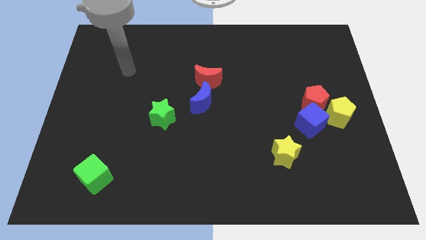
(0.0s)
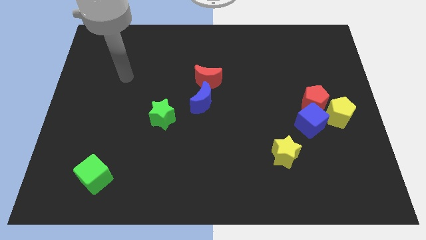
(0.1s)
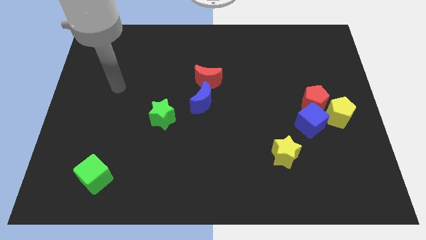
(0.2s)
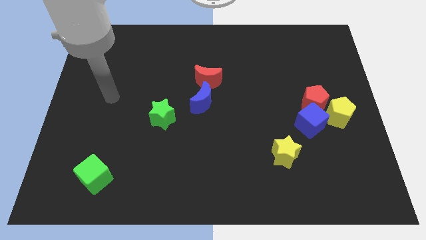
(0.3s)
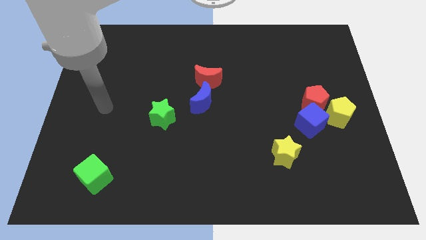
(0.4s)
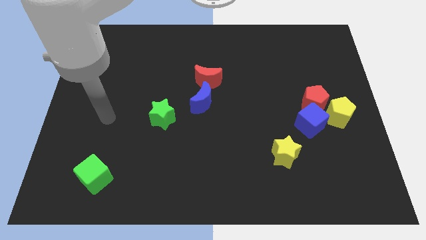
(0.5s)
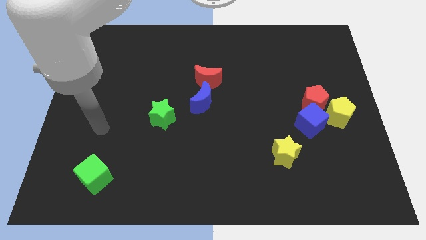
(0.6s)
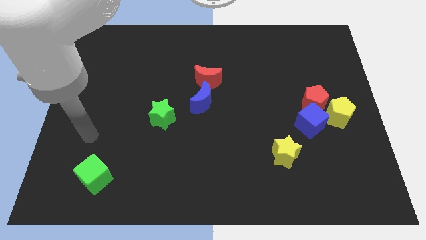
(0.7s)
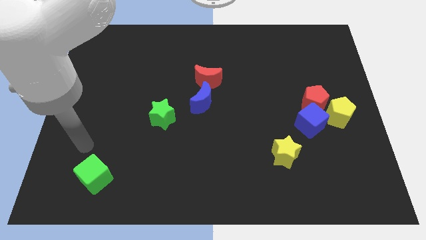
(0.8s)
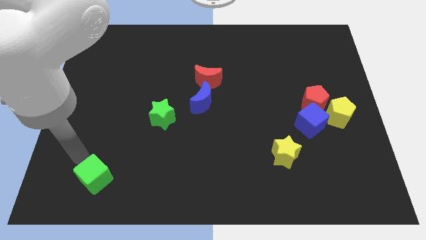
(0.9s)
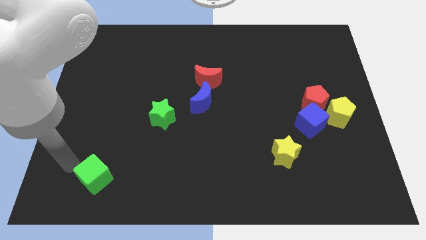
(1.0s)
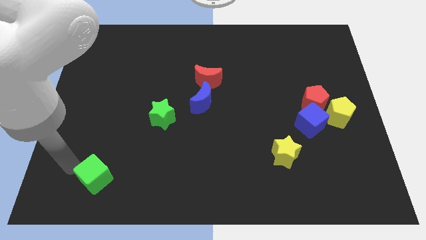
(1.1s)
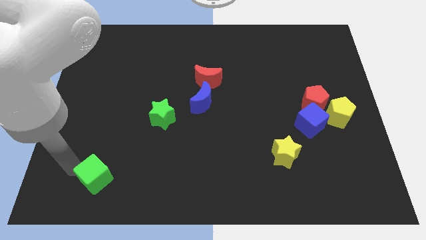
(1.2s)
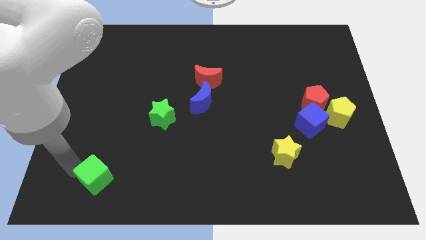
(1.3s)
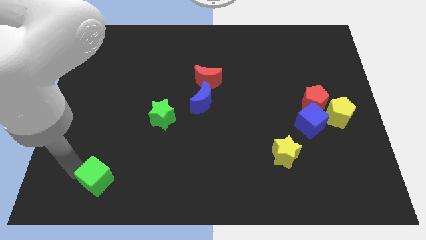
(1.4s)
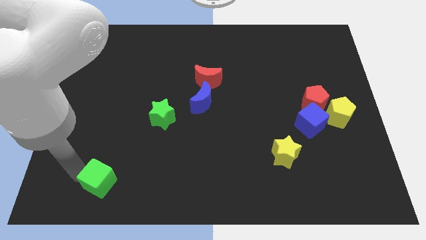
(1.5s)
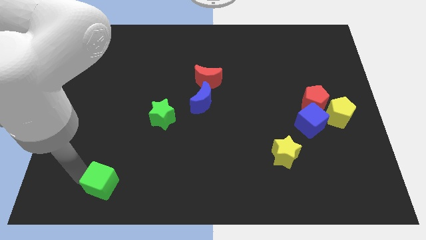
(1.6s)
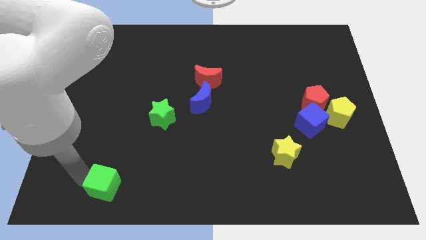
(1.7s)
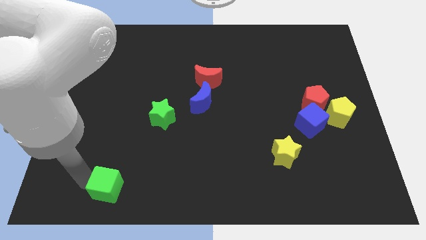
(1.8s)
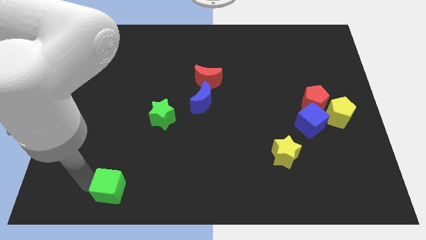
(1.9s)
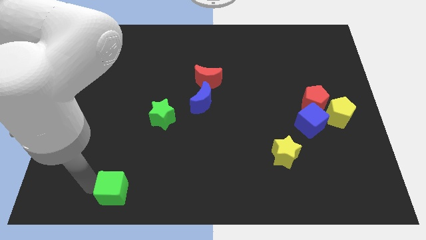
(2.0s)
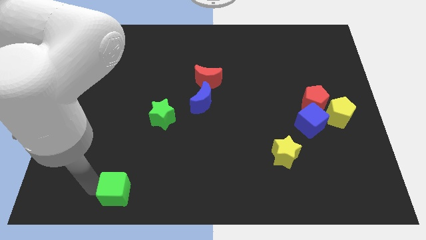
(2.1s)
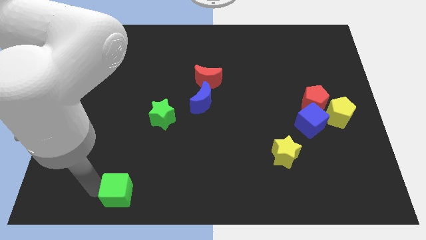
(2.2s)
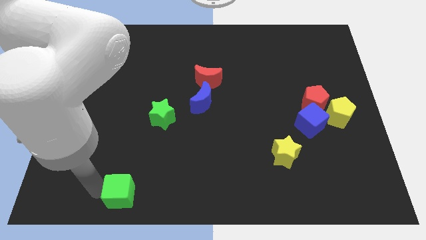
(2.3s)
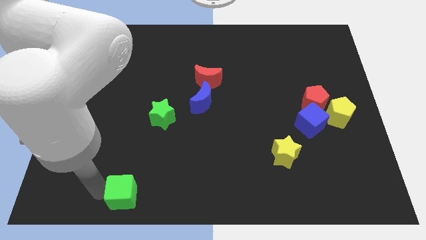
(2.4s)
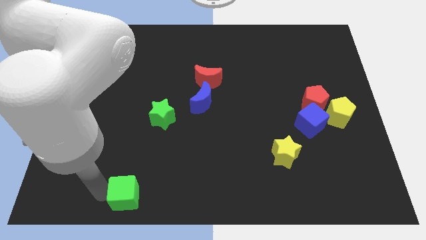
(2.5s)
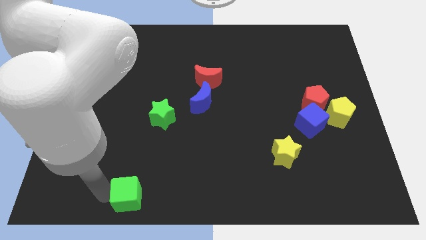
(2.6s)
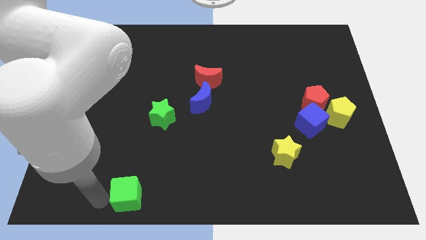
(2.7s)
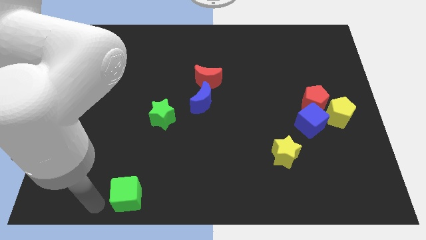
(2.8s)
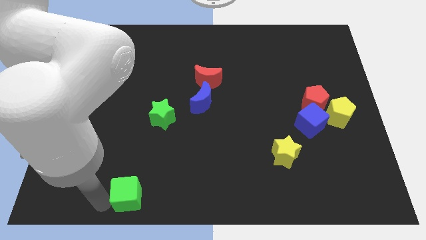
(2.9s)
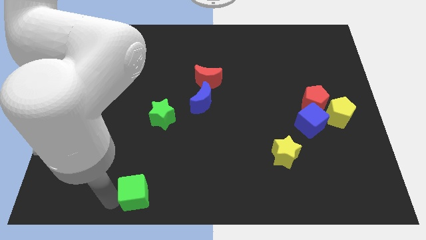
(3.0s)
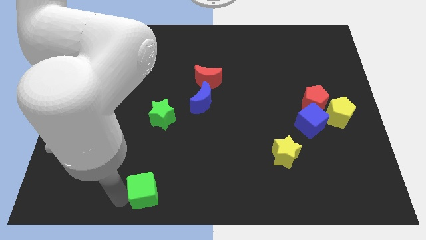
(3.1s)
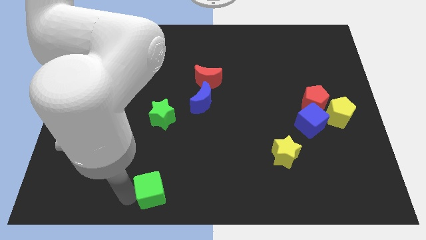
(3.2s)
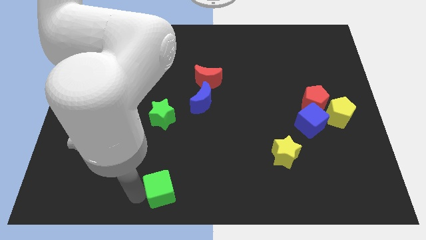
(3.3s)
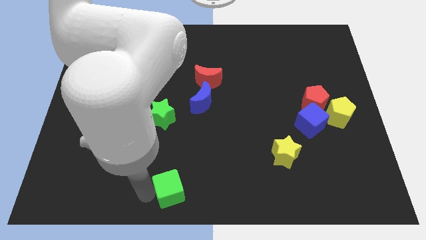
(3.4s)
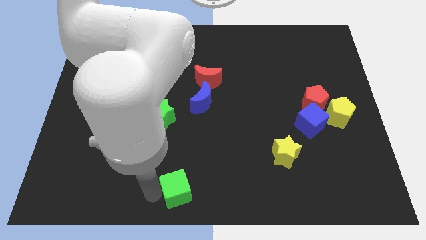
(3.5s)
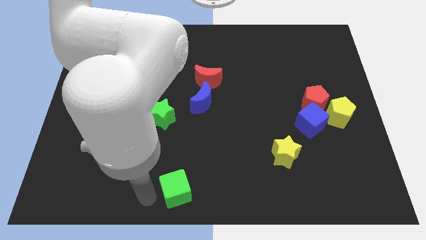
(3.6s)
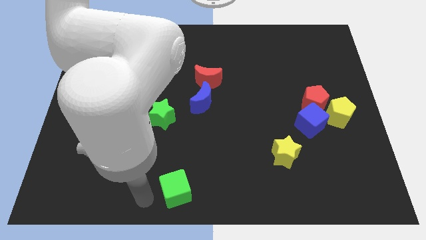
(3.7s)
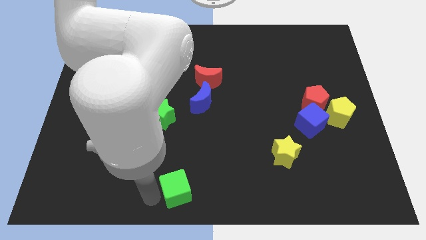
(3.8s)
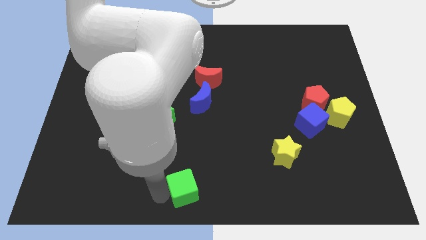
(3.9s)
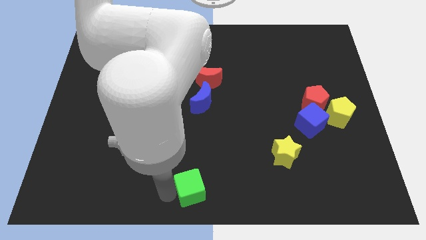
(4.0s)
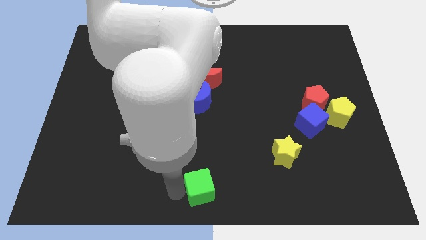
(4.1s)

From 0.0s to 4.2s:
slide the green cube to the right

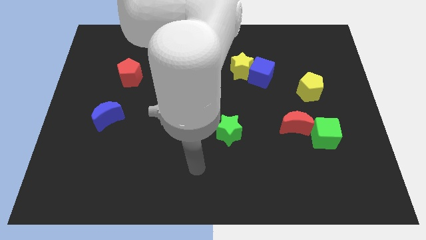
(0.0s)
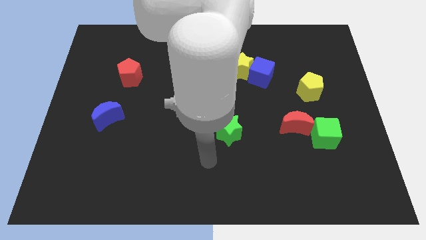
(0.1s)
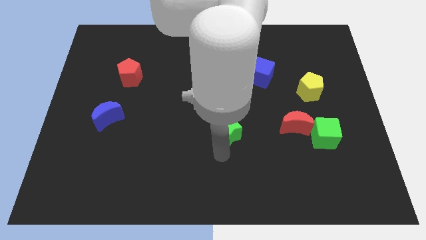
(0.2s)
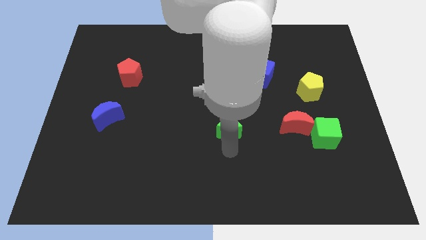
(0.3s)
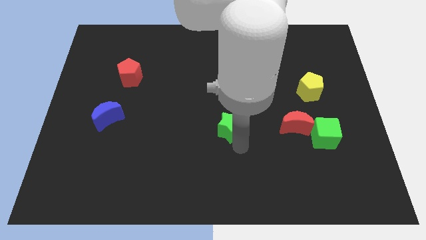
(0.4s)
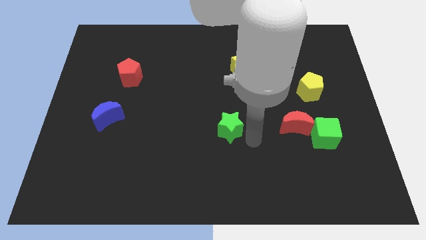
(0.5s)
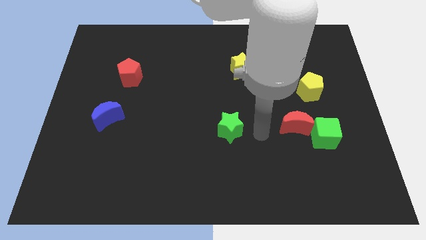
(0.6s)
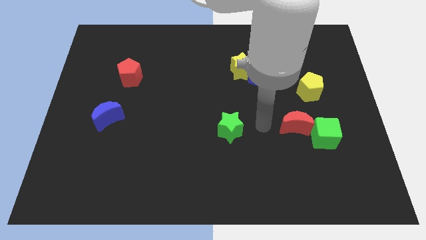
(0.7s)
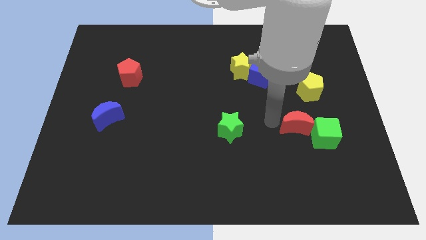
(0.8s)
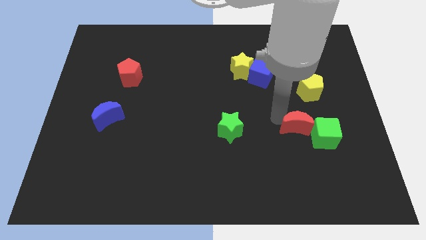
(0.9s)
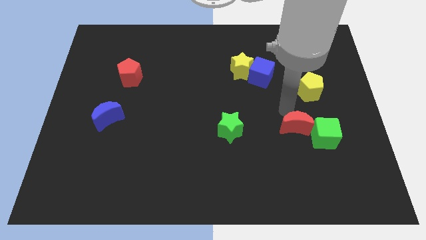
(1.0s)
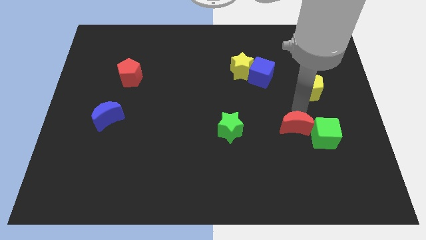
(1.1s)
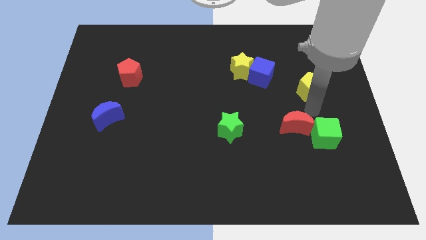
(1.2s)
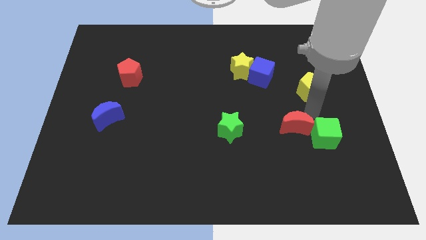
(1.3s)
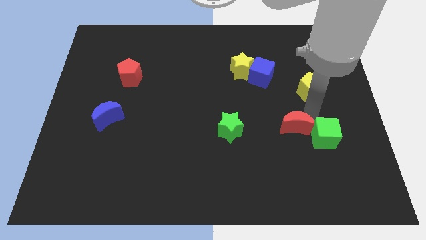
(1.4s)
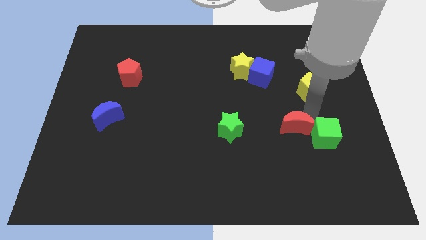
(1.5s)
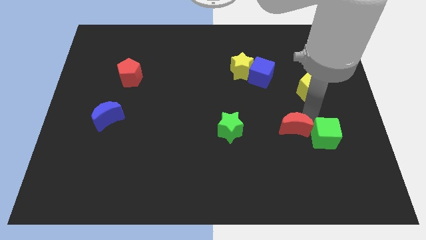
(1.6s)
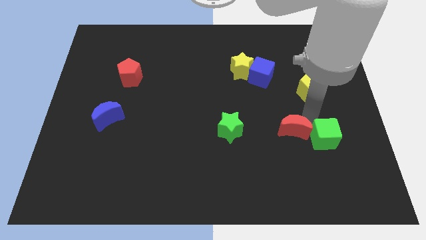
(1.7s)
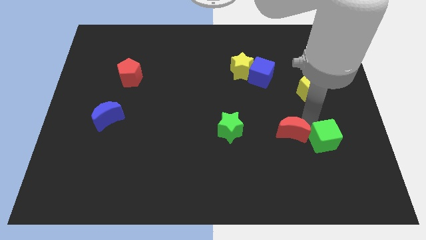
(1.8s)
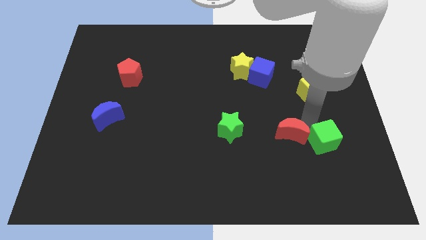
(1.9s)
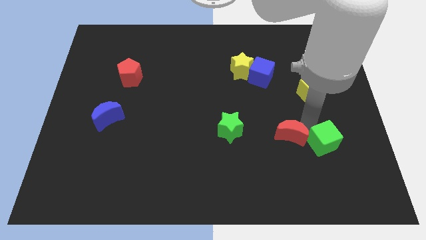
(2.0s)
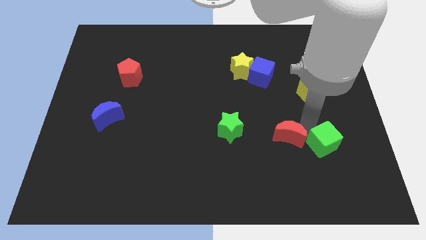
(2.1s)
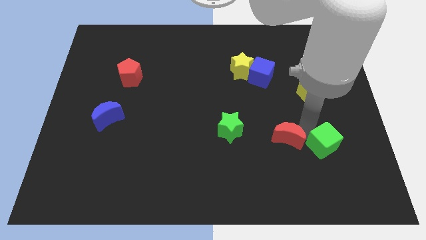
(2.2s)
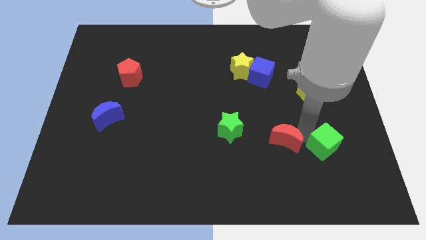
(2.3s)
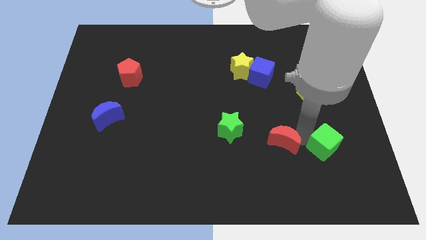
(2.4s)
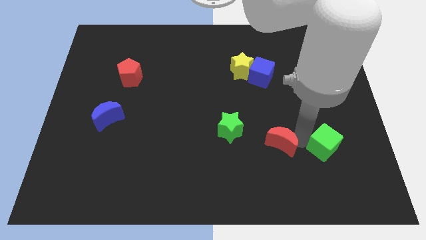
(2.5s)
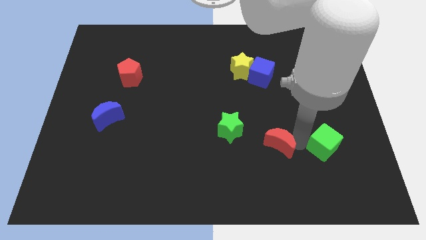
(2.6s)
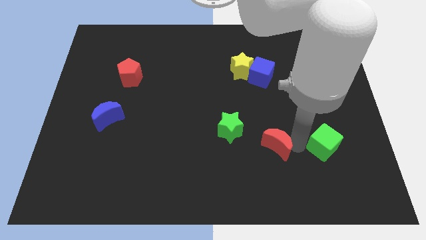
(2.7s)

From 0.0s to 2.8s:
slightly slide the red moon diagonally downwards and left

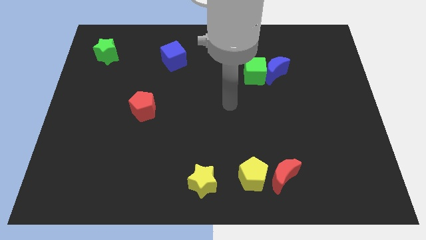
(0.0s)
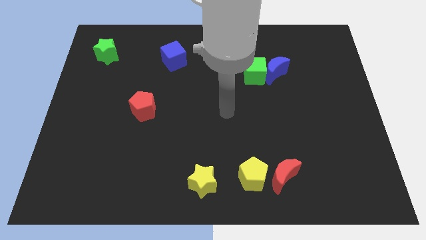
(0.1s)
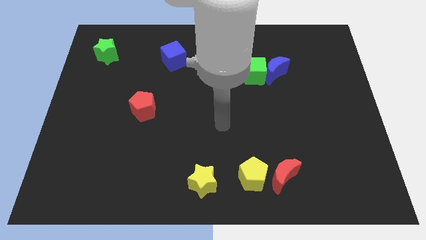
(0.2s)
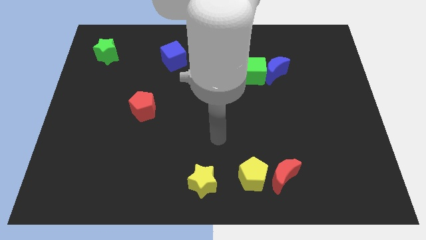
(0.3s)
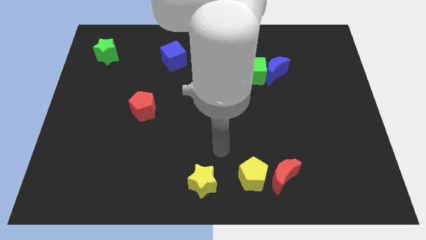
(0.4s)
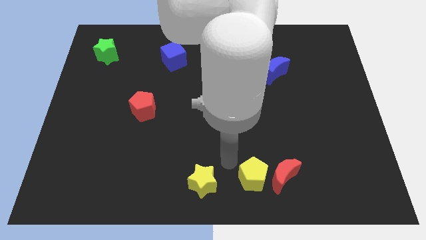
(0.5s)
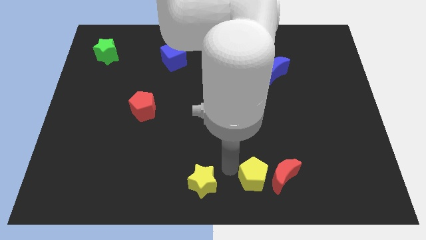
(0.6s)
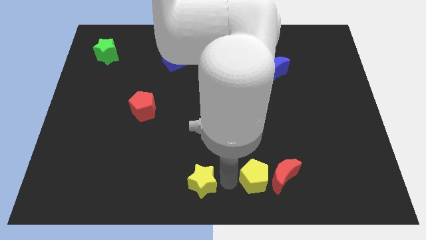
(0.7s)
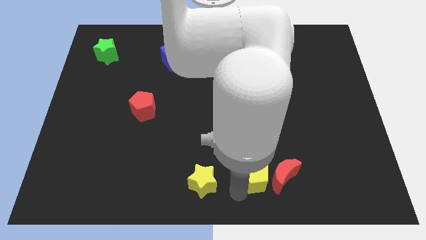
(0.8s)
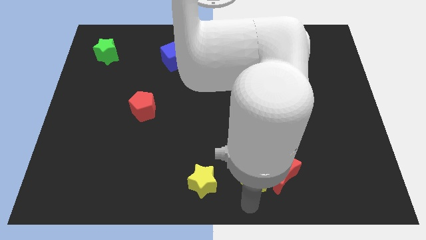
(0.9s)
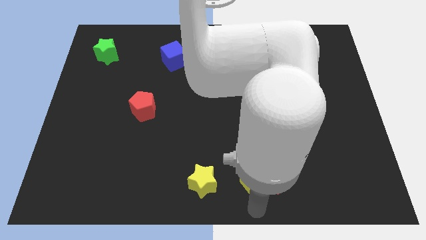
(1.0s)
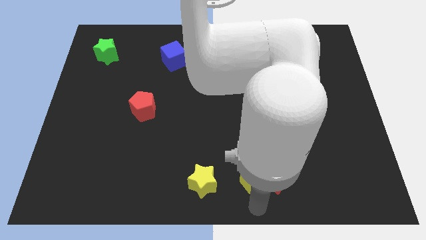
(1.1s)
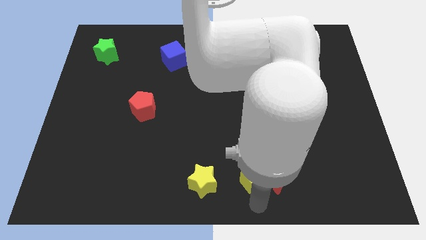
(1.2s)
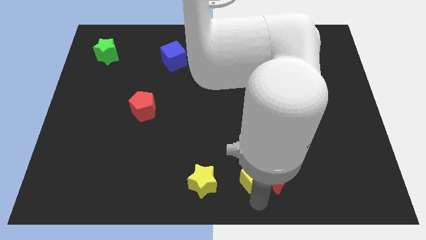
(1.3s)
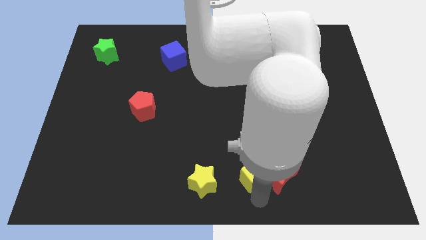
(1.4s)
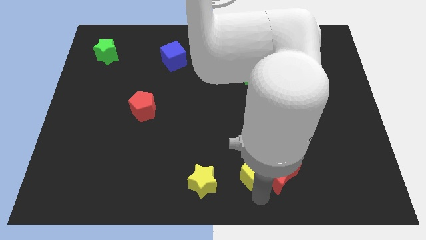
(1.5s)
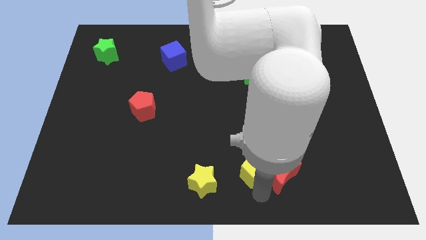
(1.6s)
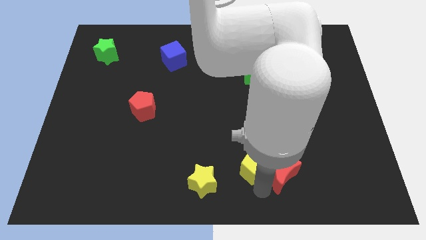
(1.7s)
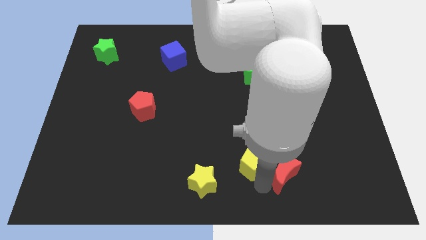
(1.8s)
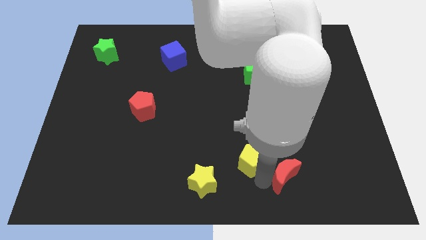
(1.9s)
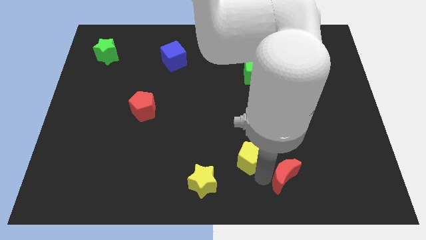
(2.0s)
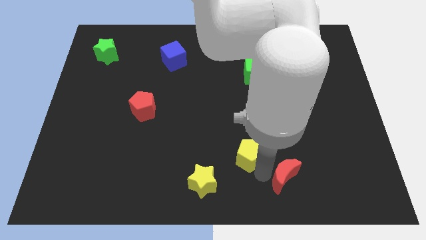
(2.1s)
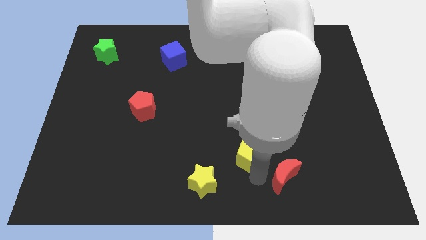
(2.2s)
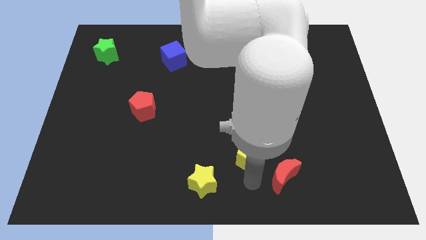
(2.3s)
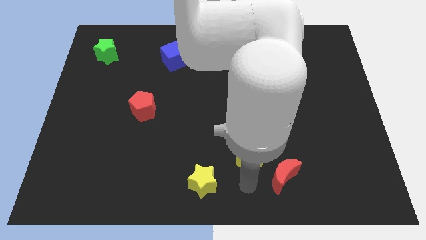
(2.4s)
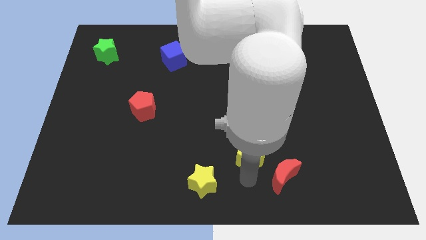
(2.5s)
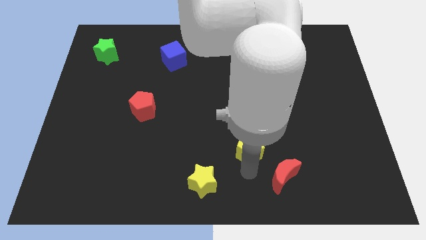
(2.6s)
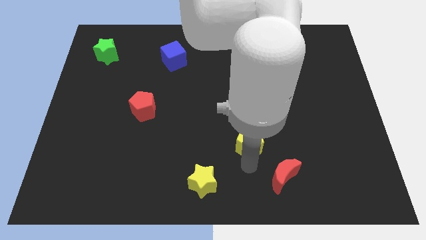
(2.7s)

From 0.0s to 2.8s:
push the yellow pentagon up a little bit
